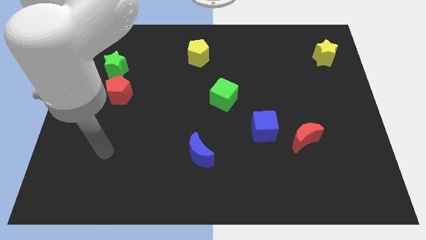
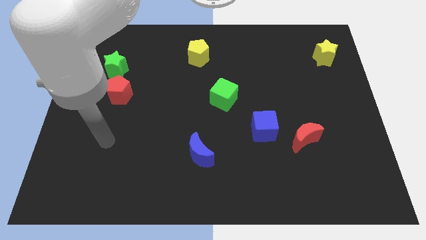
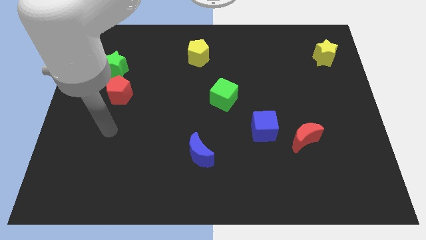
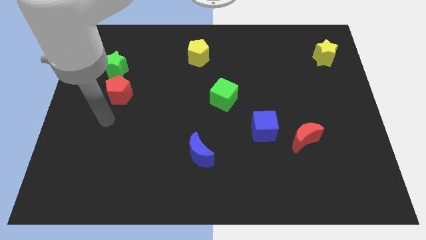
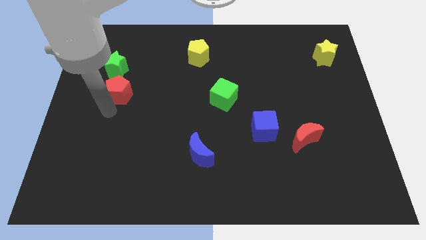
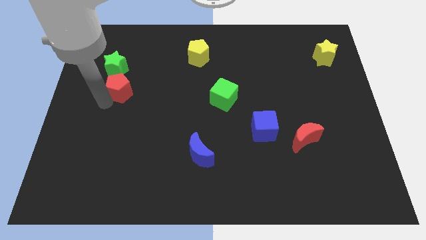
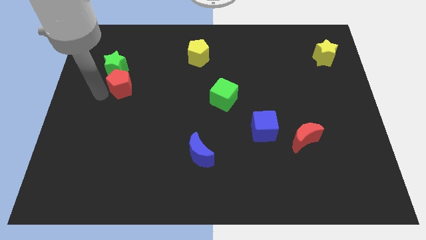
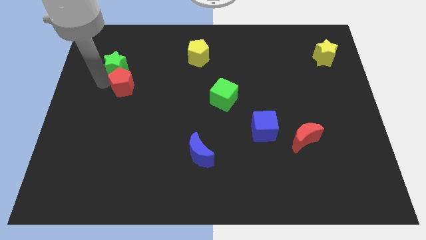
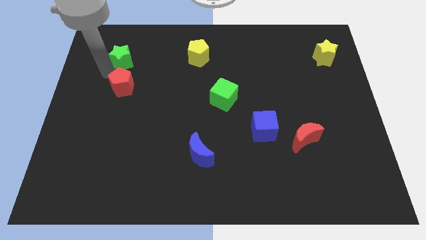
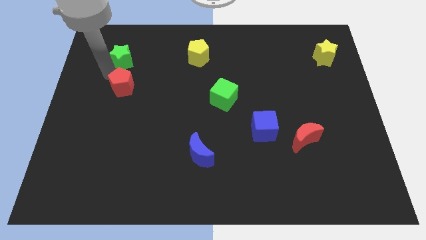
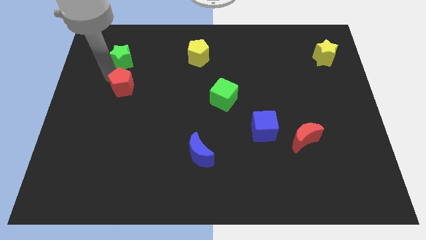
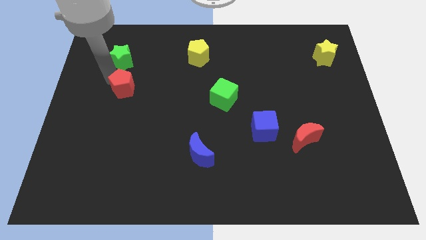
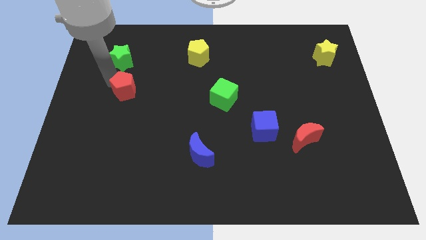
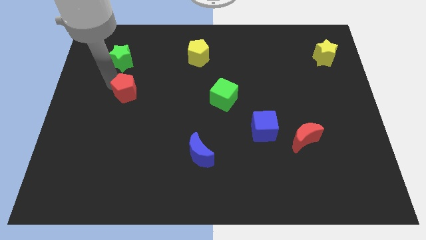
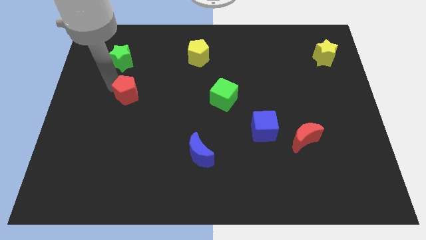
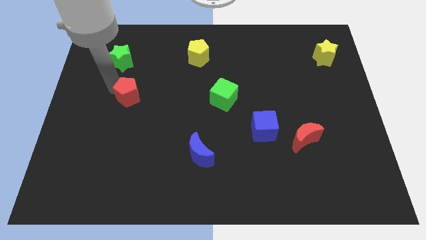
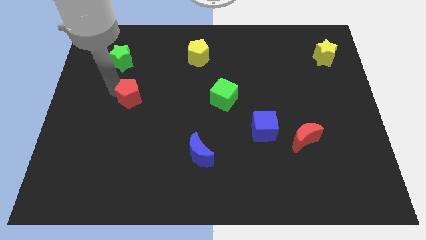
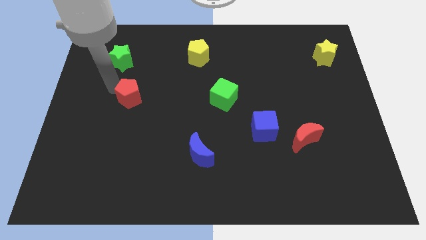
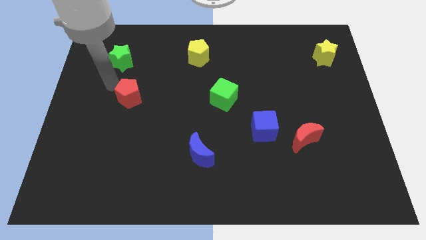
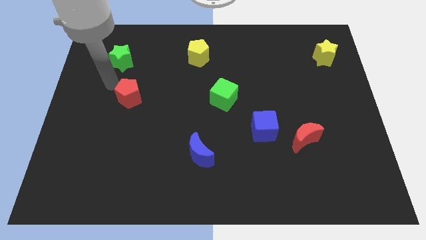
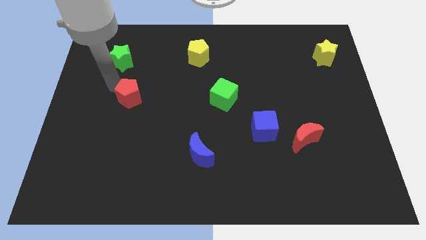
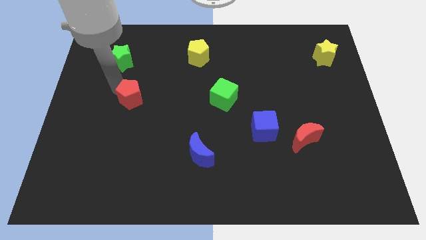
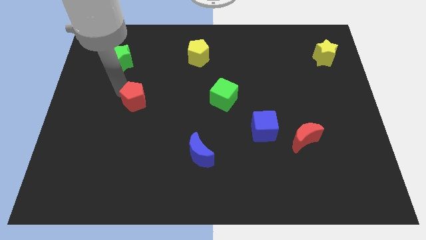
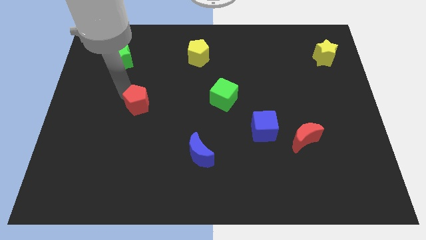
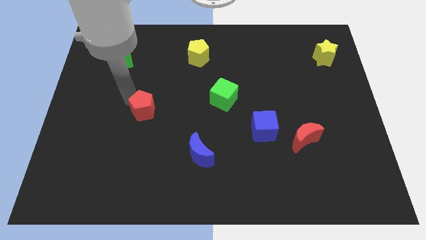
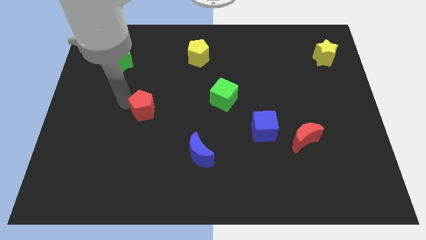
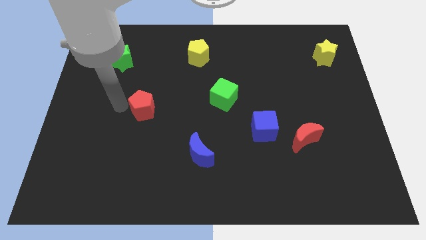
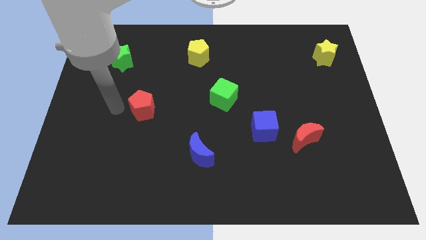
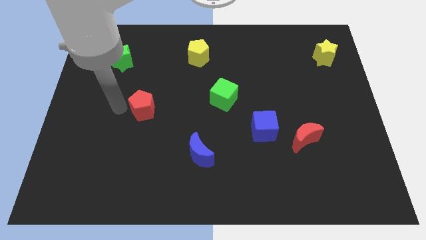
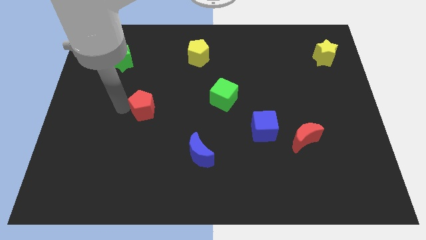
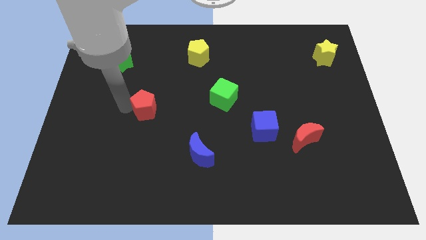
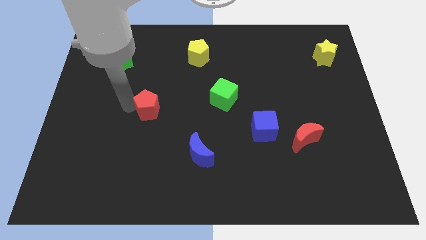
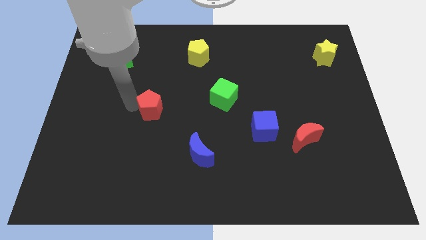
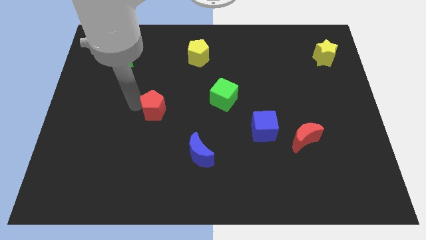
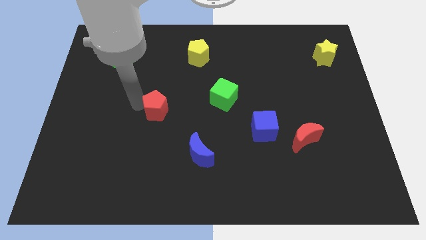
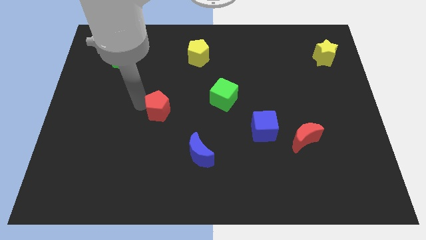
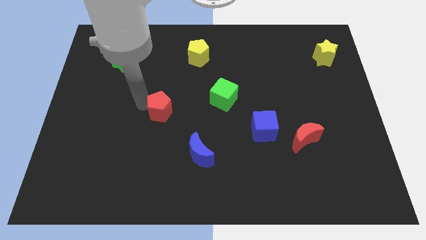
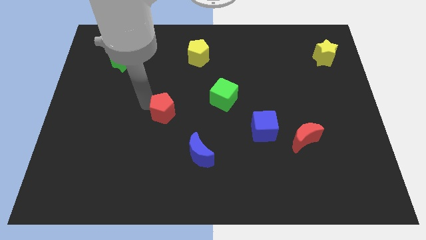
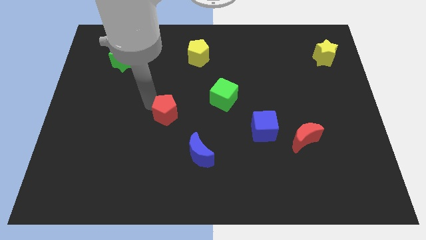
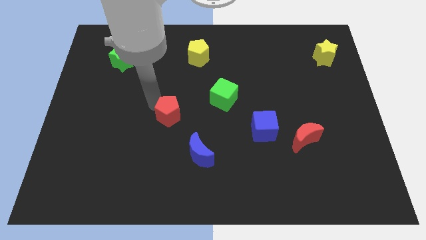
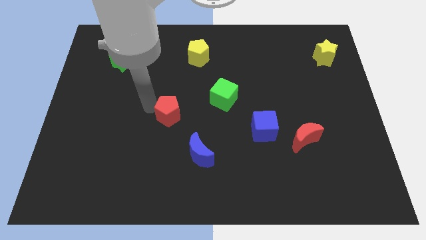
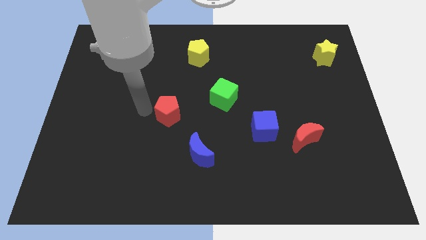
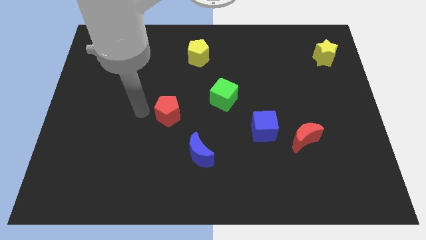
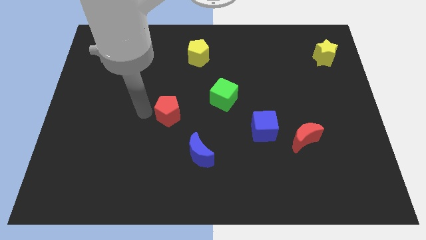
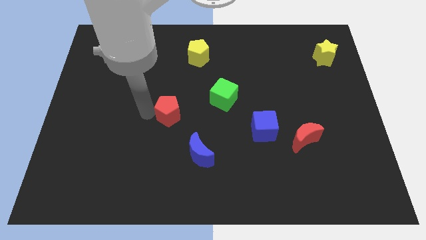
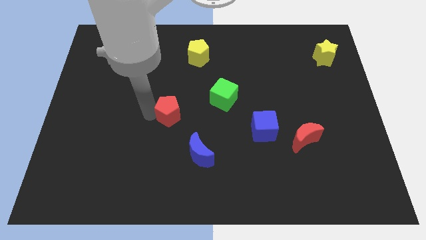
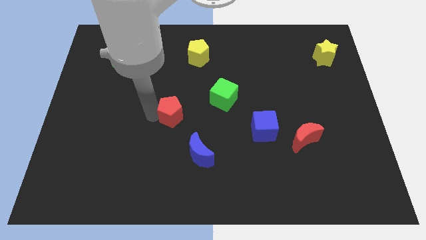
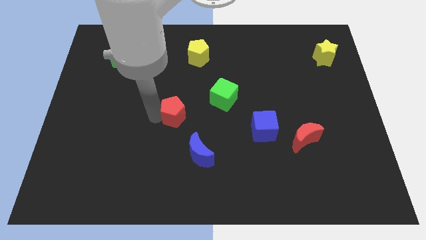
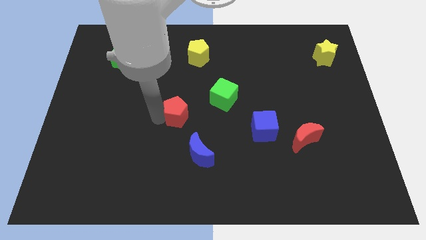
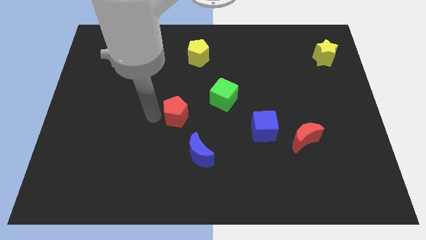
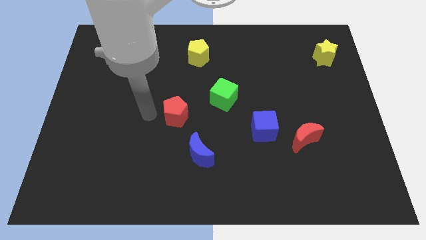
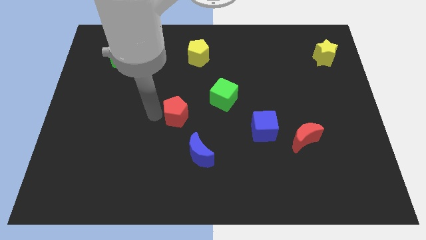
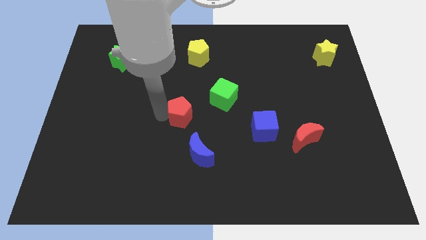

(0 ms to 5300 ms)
push the red pentagon above the blue moon

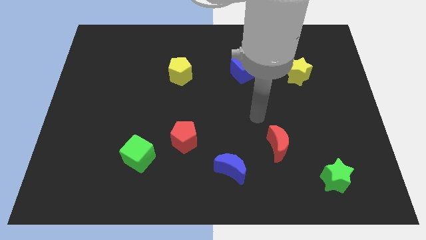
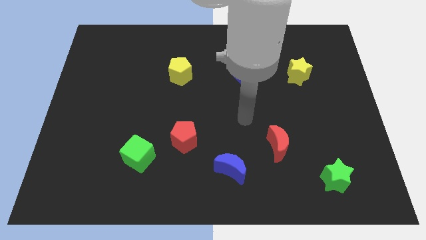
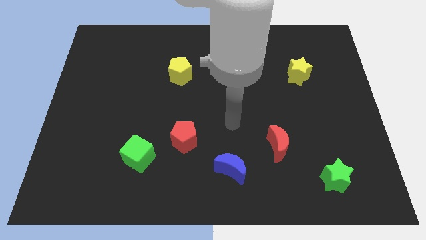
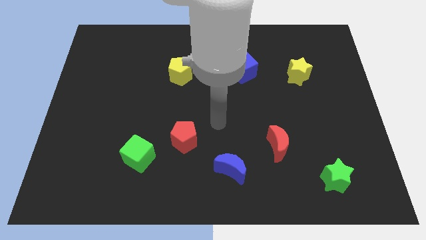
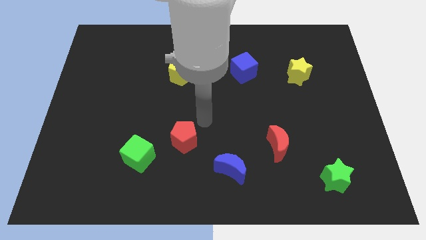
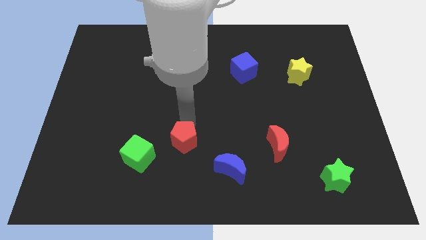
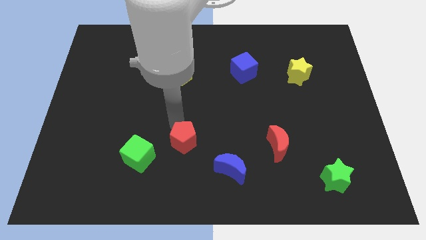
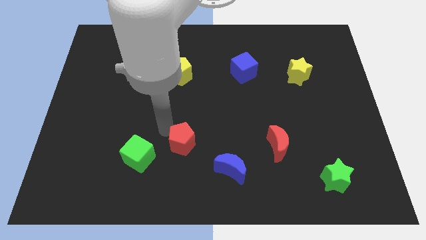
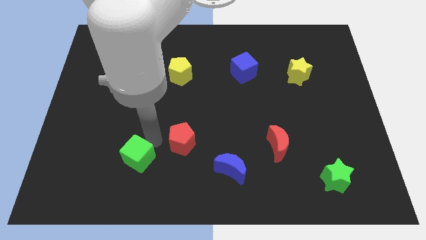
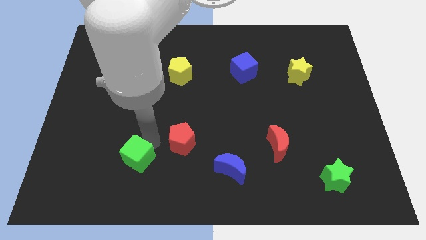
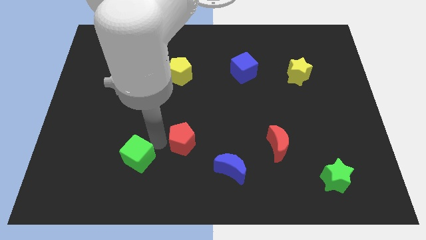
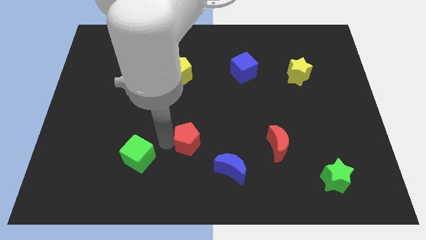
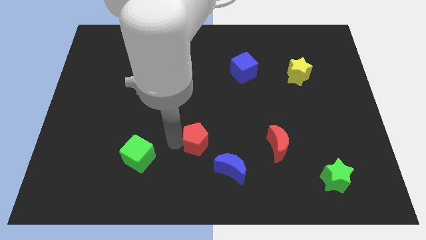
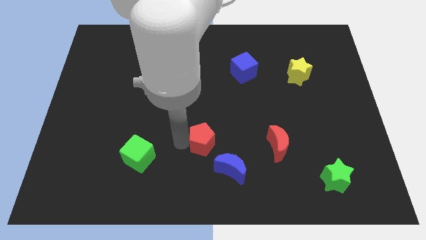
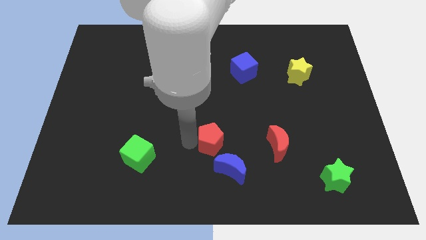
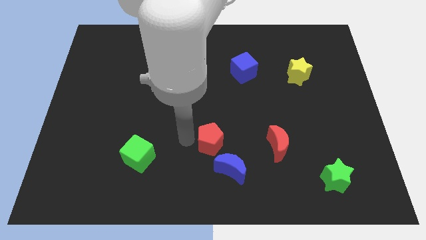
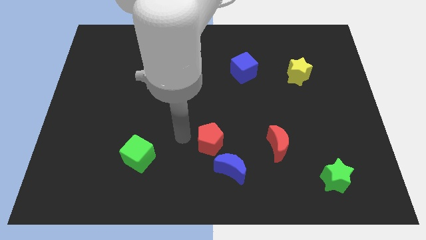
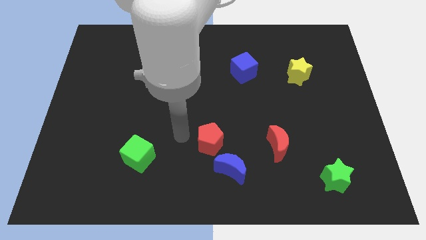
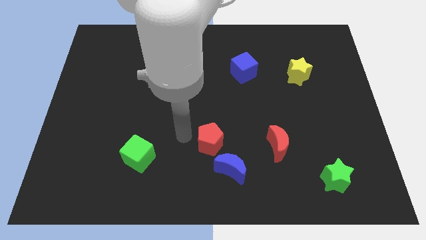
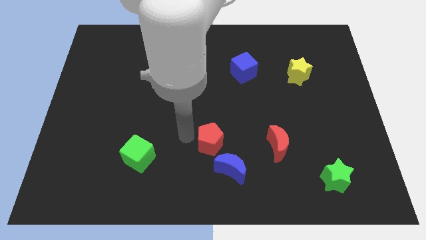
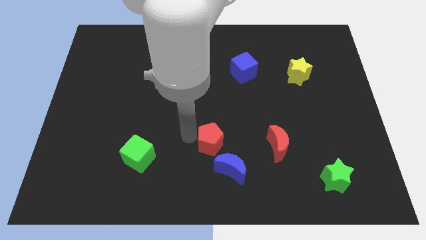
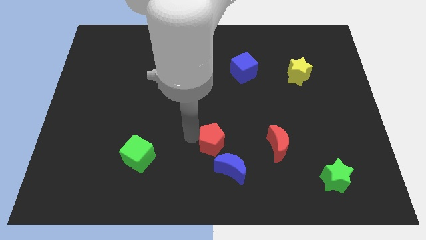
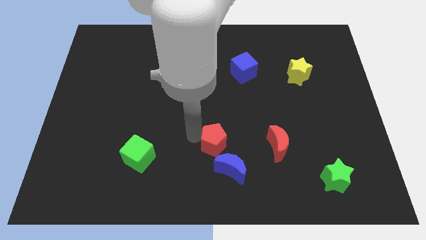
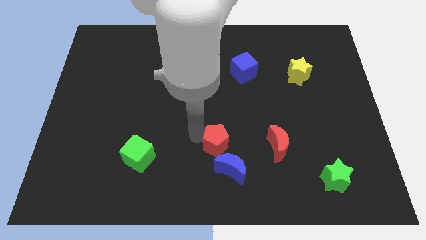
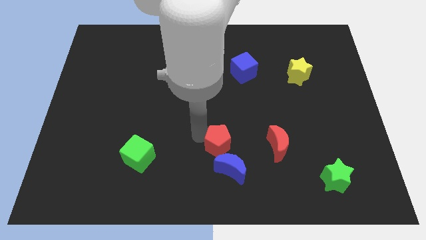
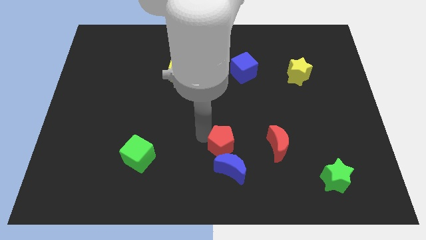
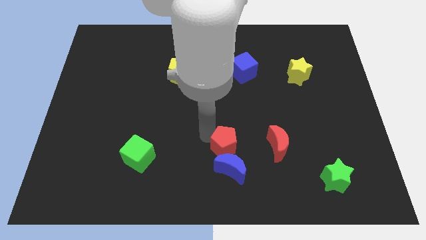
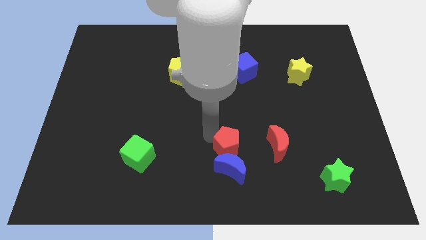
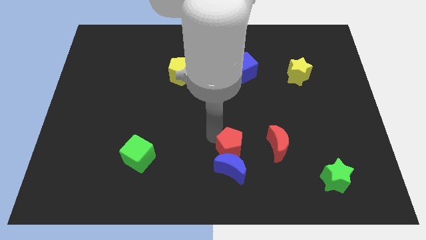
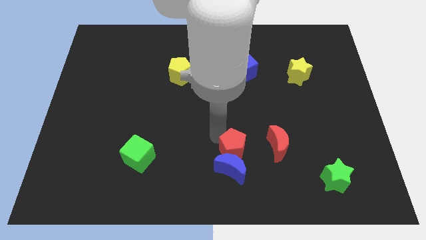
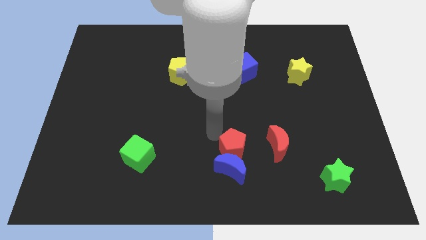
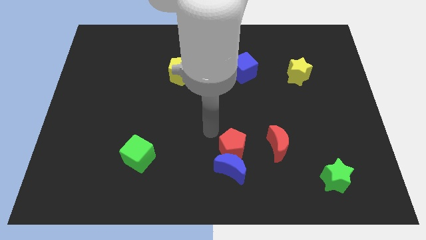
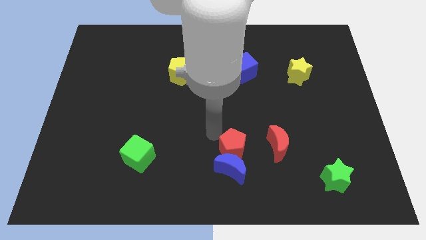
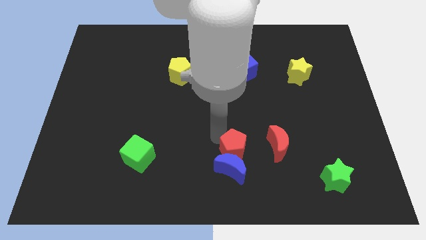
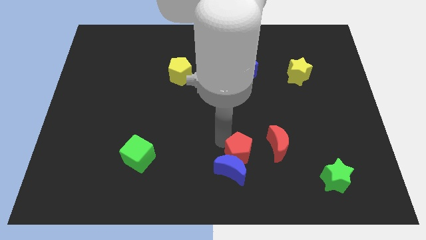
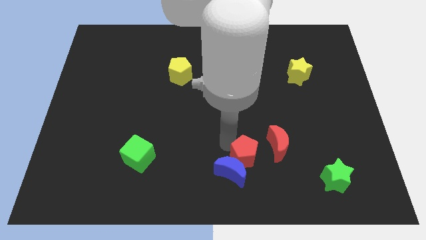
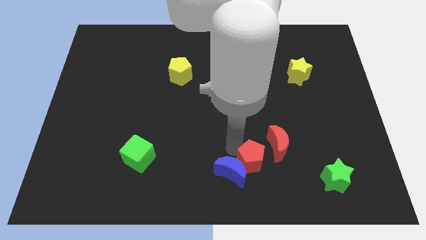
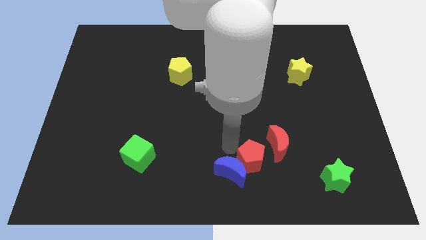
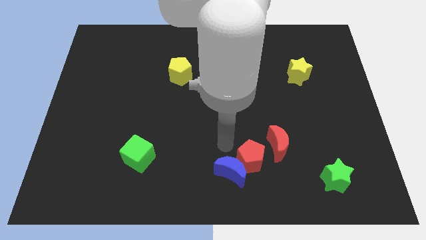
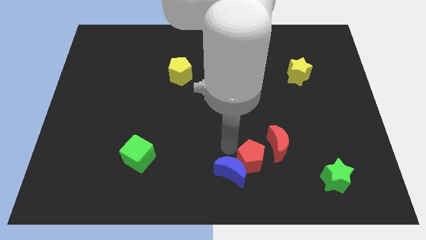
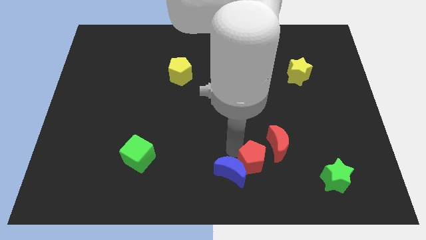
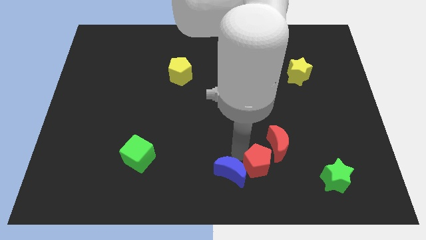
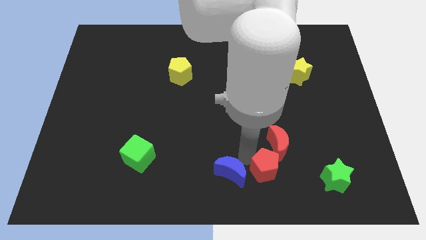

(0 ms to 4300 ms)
push the red pentagon to the left of the green star
